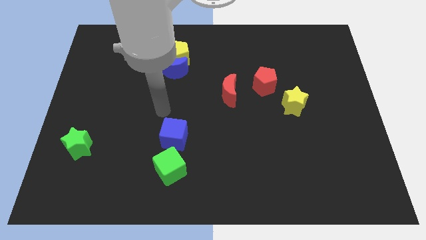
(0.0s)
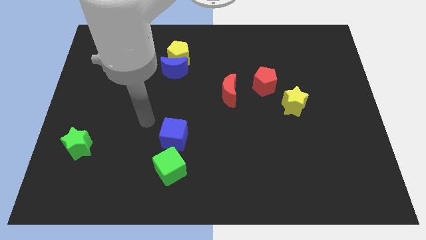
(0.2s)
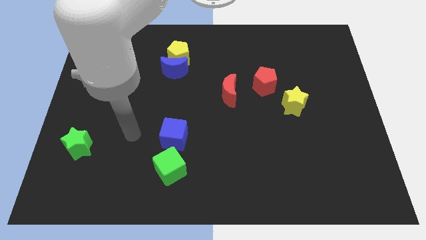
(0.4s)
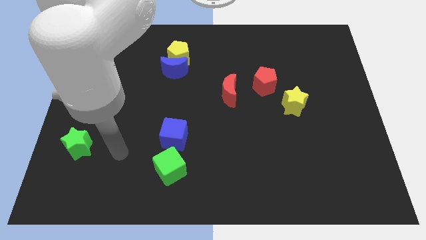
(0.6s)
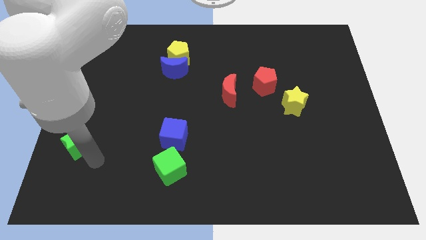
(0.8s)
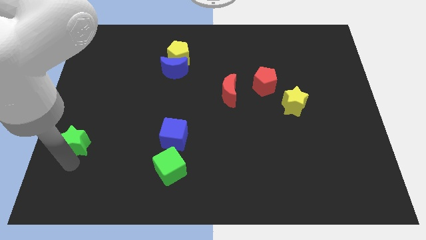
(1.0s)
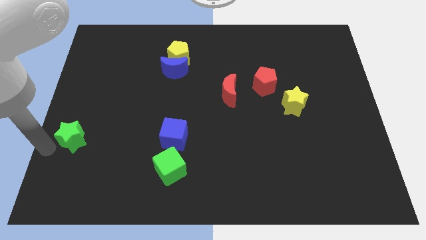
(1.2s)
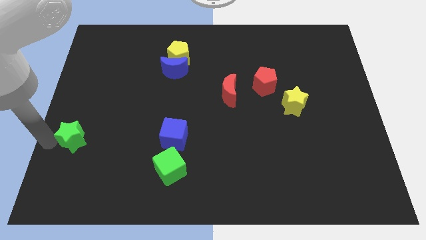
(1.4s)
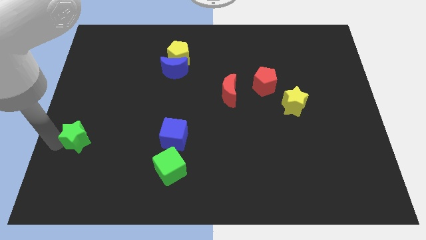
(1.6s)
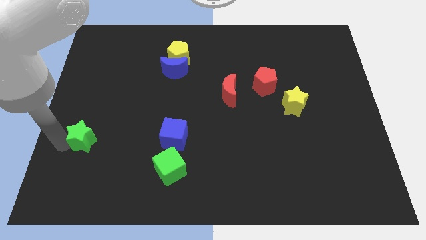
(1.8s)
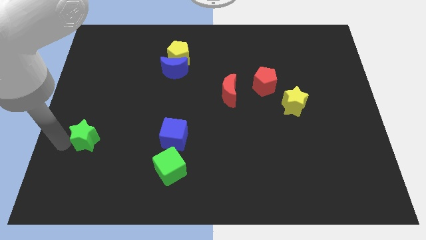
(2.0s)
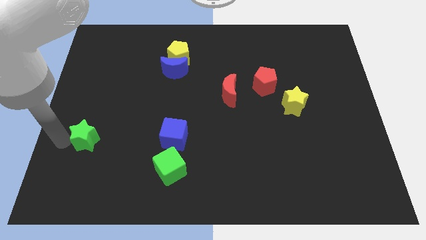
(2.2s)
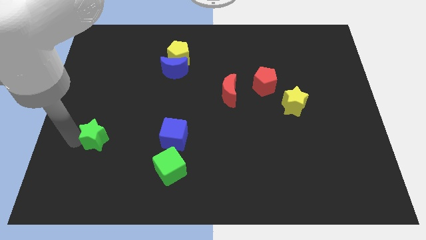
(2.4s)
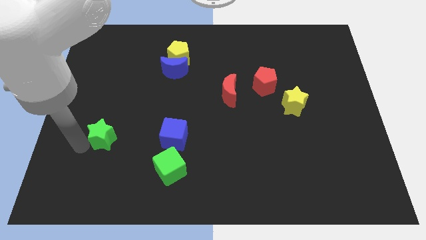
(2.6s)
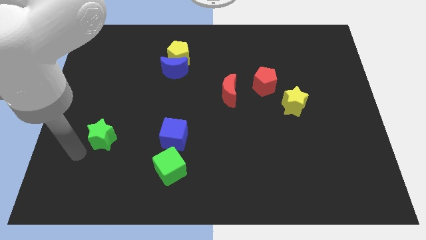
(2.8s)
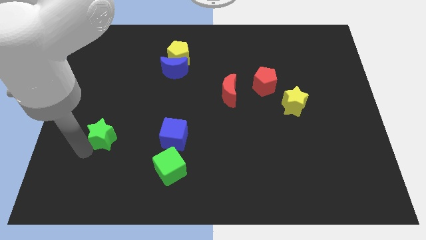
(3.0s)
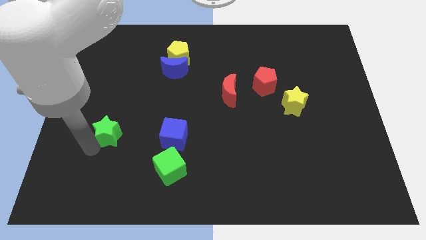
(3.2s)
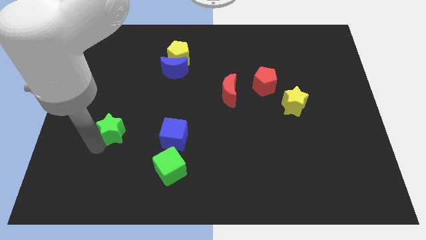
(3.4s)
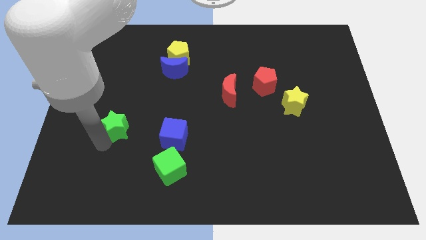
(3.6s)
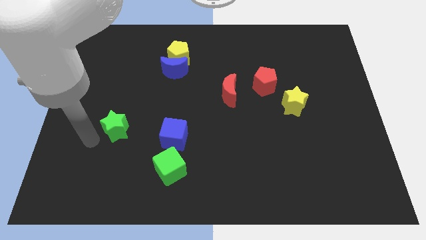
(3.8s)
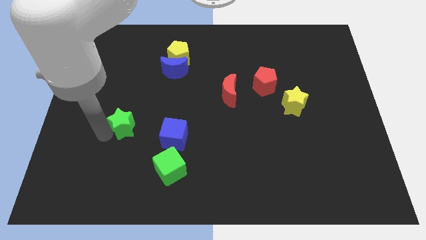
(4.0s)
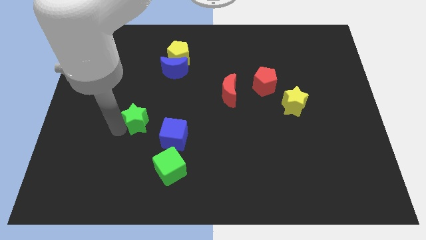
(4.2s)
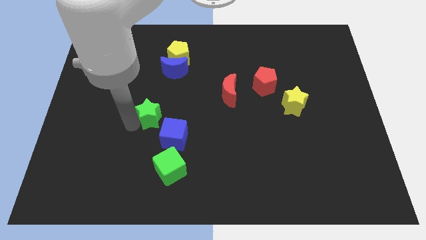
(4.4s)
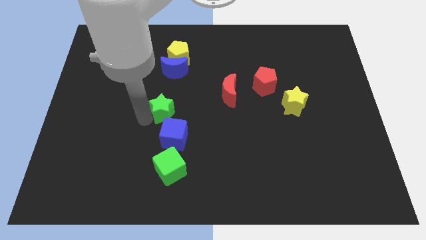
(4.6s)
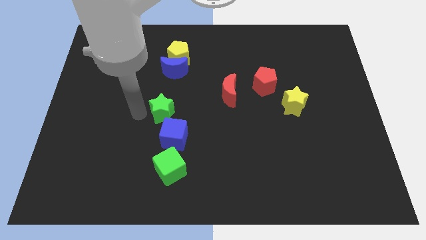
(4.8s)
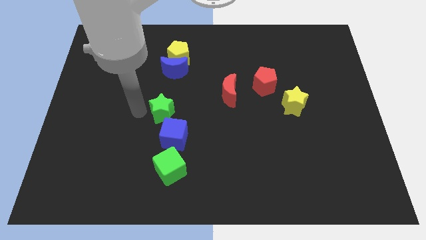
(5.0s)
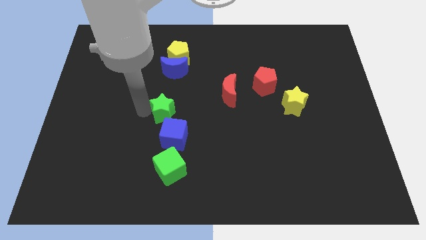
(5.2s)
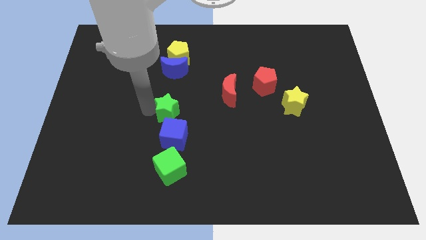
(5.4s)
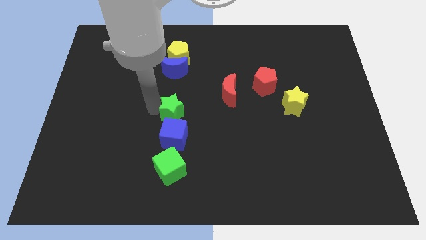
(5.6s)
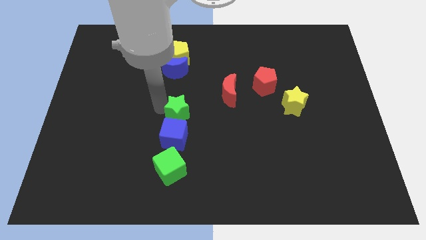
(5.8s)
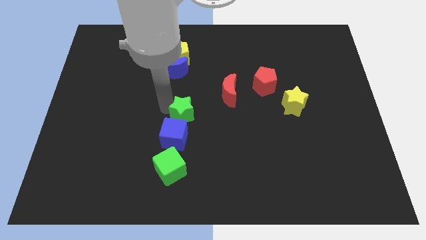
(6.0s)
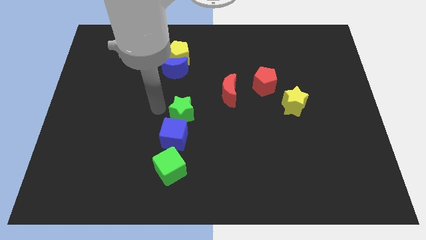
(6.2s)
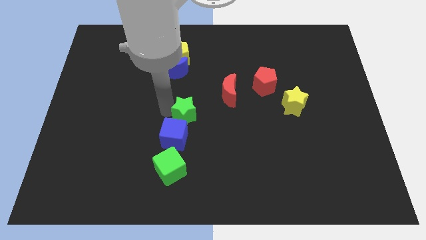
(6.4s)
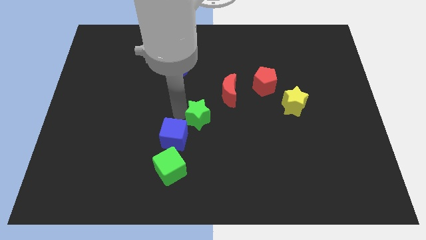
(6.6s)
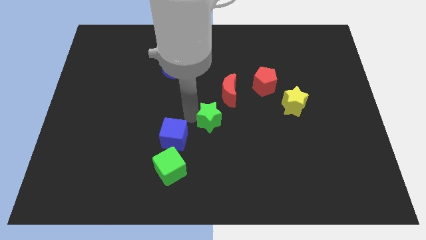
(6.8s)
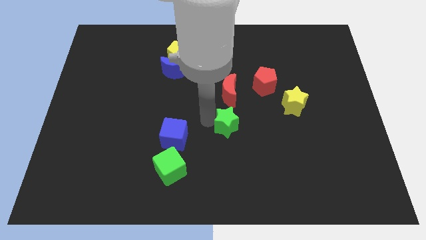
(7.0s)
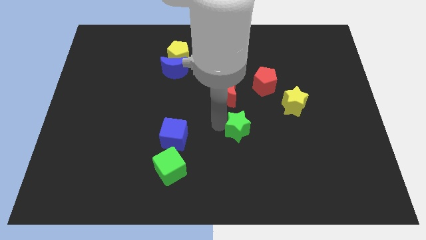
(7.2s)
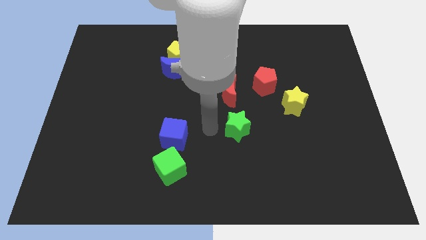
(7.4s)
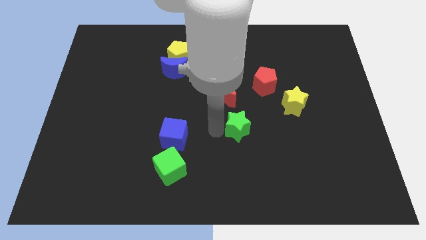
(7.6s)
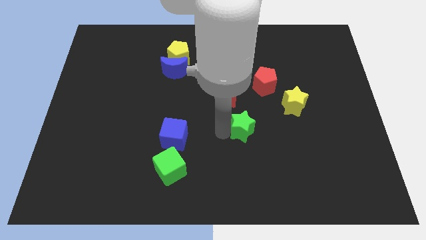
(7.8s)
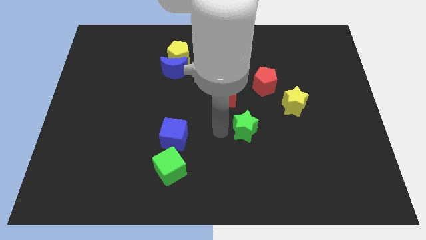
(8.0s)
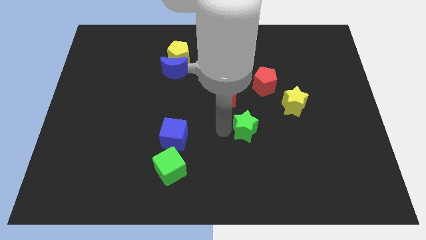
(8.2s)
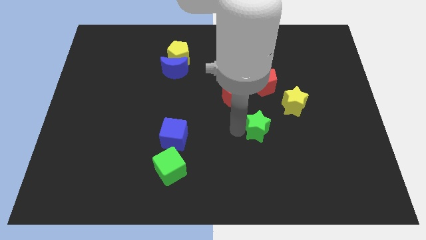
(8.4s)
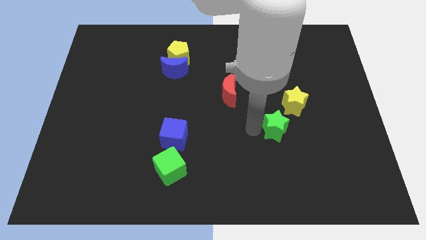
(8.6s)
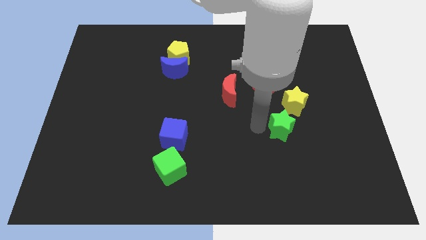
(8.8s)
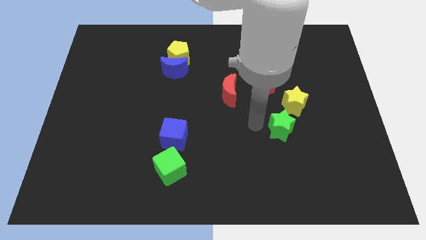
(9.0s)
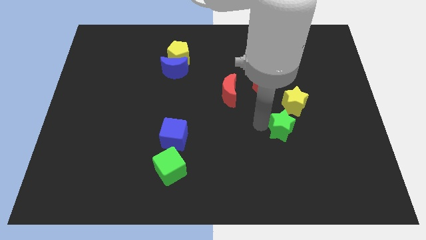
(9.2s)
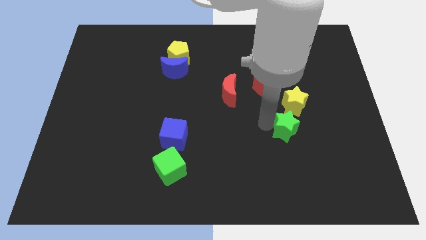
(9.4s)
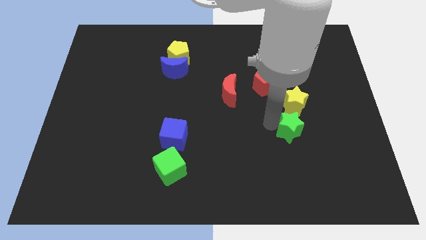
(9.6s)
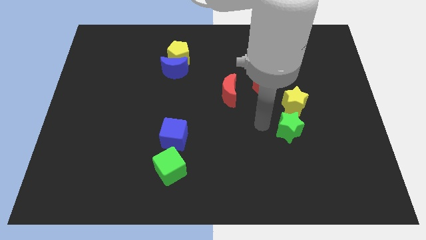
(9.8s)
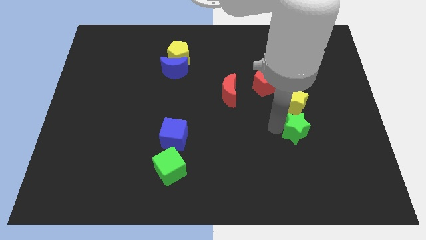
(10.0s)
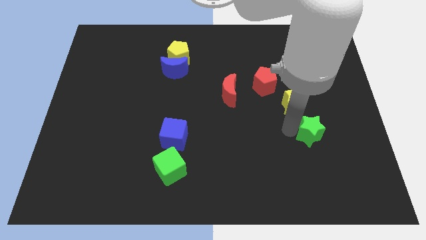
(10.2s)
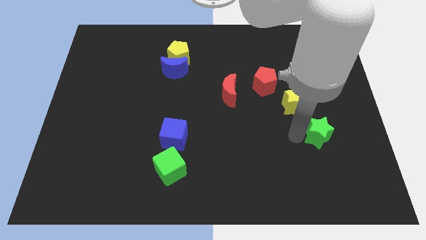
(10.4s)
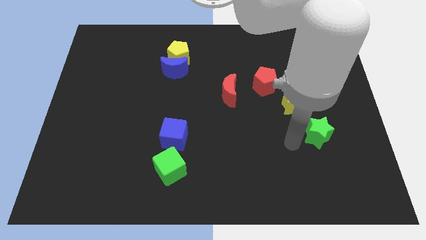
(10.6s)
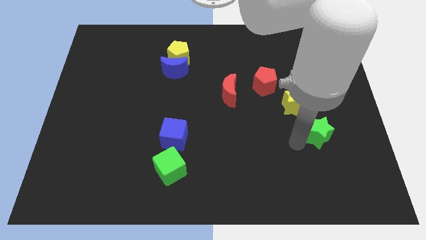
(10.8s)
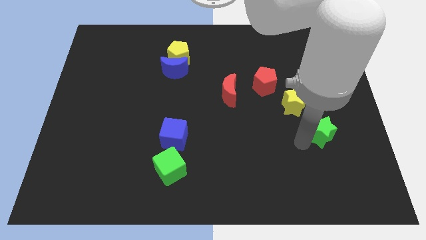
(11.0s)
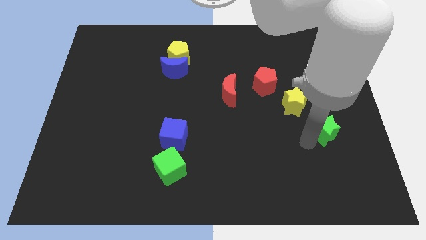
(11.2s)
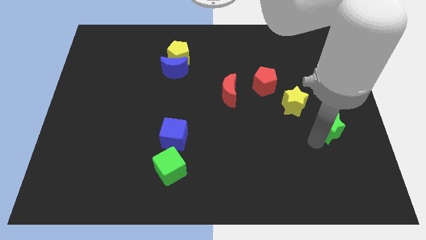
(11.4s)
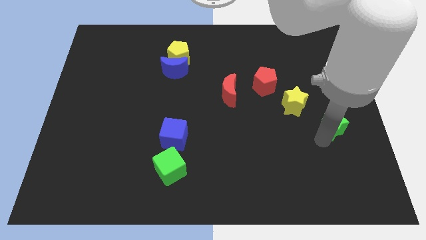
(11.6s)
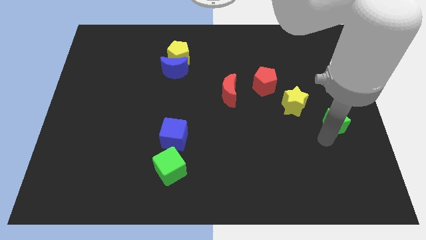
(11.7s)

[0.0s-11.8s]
push the green star to the right side

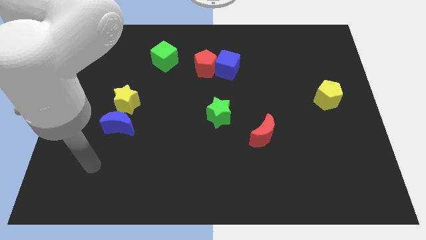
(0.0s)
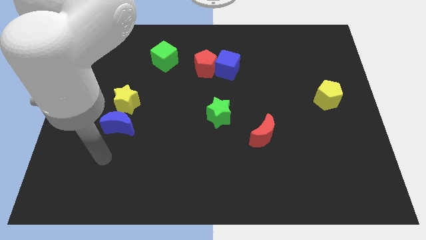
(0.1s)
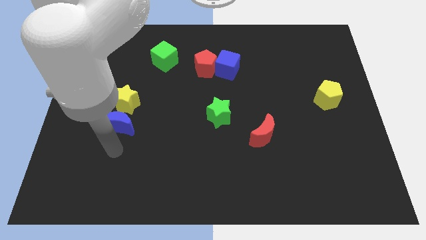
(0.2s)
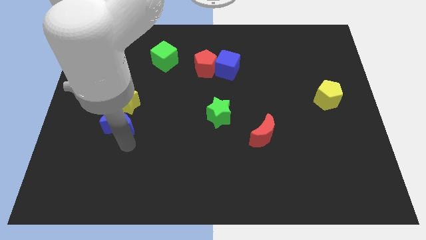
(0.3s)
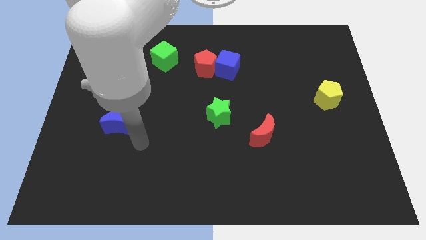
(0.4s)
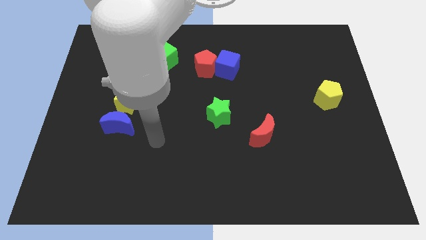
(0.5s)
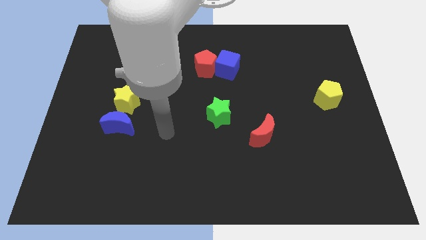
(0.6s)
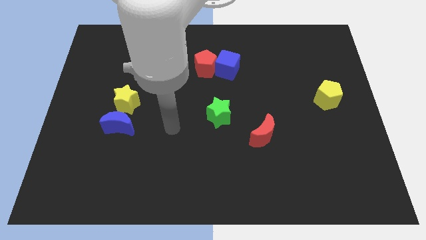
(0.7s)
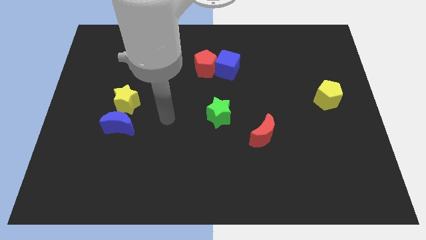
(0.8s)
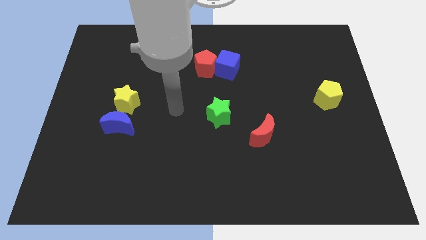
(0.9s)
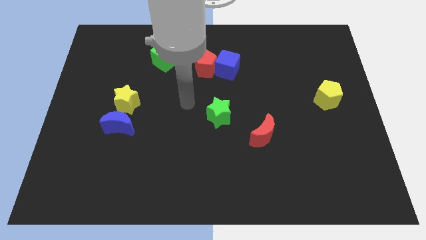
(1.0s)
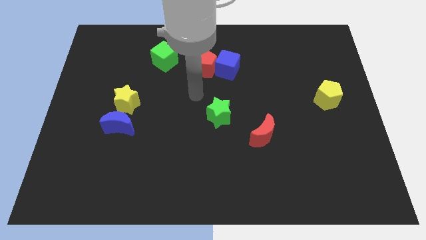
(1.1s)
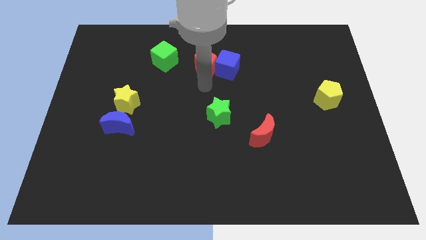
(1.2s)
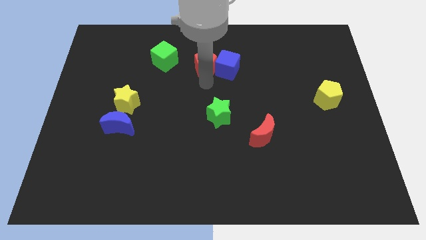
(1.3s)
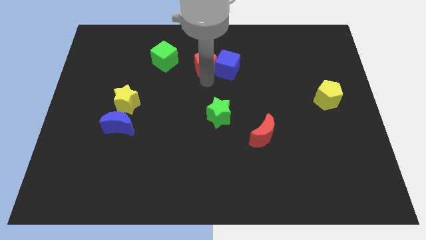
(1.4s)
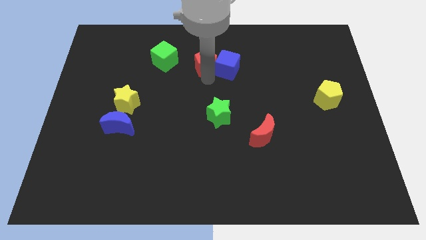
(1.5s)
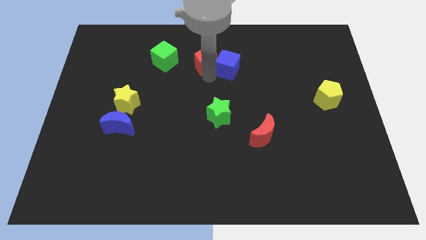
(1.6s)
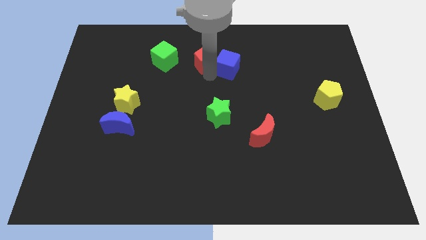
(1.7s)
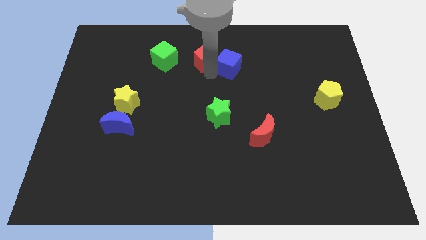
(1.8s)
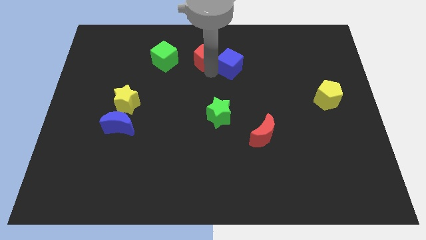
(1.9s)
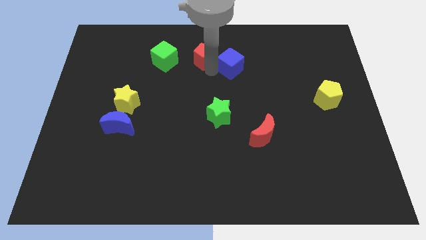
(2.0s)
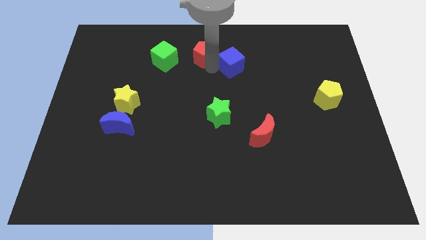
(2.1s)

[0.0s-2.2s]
push the red pentagon to the top
